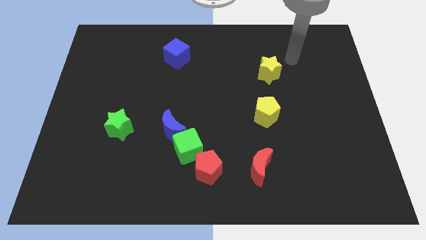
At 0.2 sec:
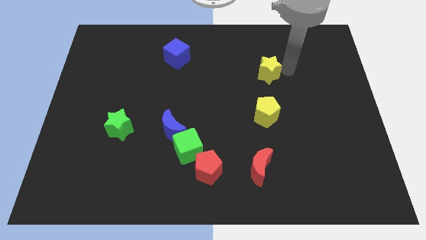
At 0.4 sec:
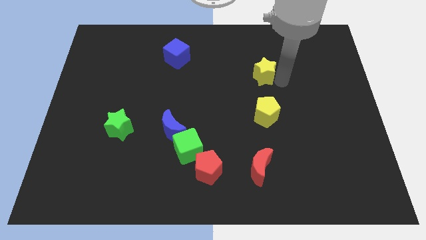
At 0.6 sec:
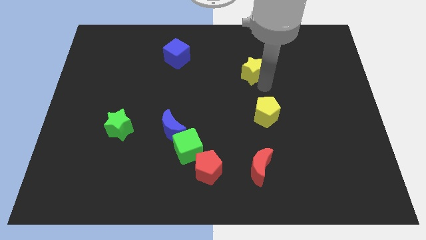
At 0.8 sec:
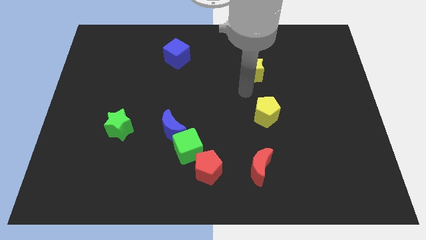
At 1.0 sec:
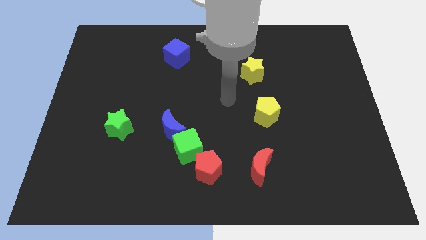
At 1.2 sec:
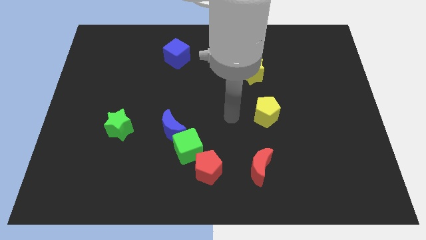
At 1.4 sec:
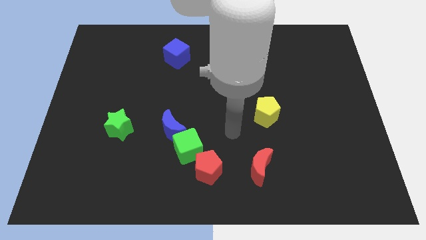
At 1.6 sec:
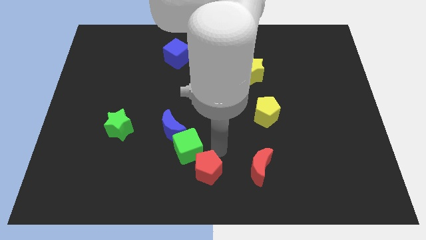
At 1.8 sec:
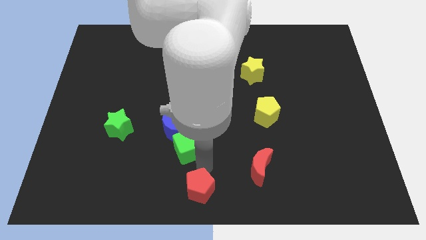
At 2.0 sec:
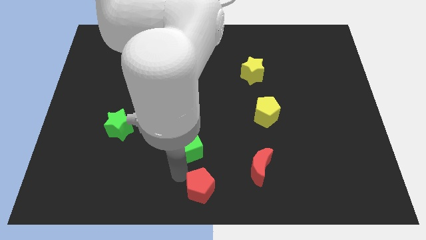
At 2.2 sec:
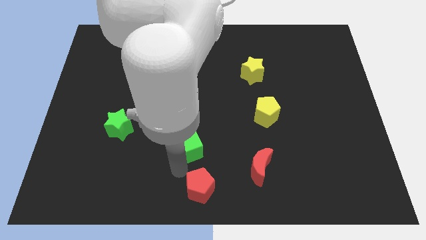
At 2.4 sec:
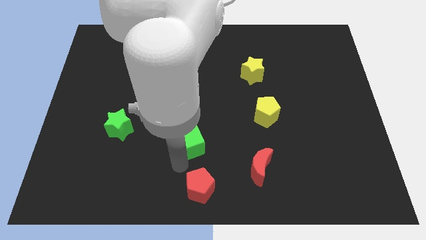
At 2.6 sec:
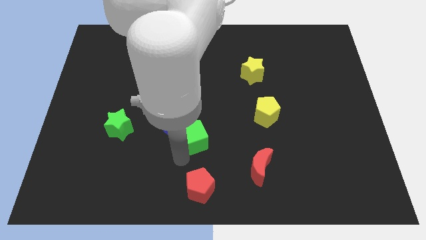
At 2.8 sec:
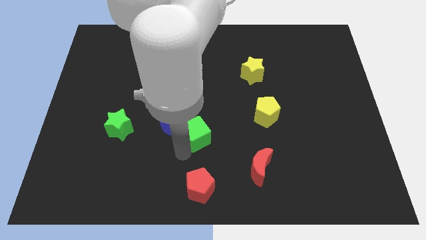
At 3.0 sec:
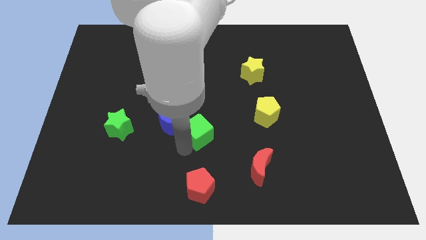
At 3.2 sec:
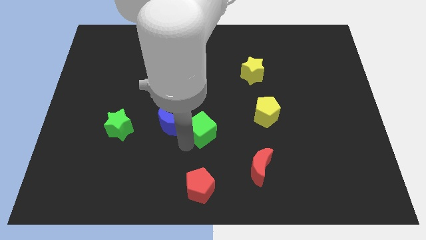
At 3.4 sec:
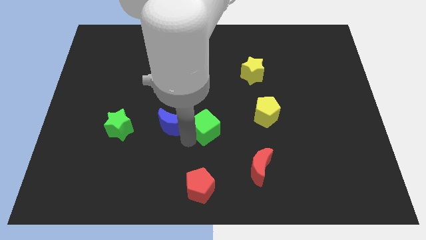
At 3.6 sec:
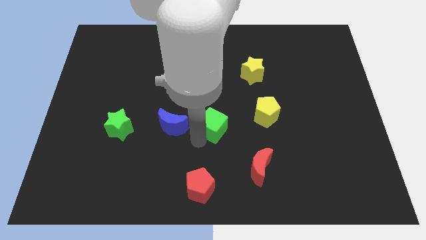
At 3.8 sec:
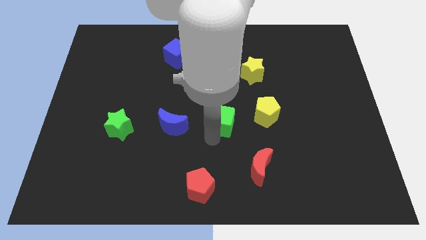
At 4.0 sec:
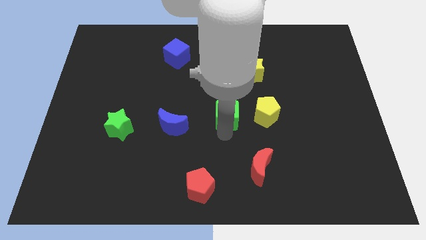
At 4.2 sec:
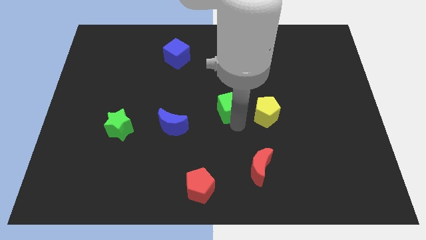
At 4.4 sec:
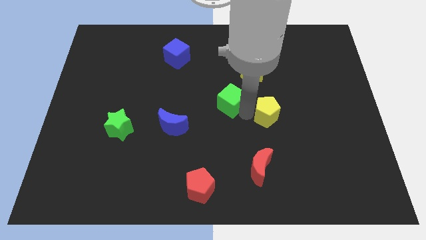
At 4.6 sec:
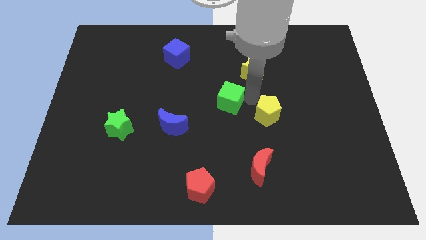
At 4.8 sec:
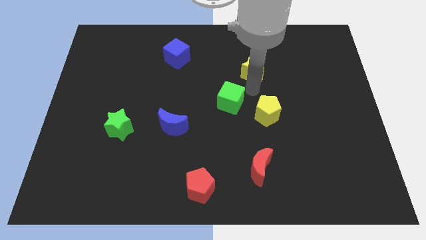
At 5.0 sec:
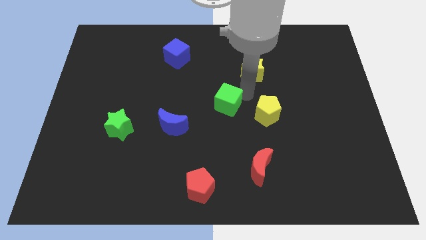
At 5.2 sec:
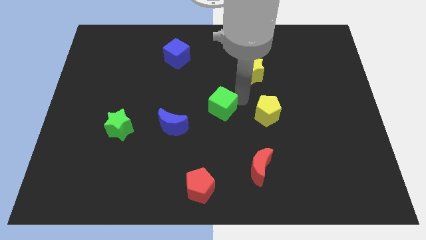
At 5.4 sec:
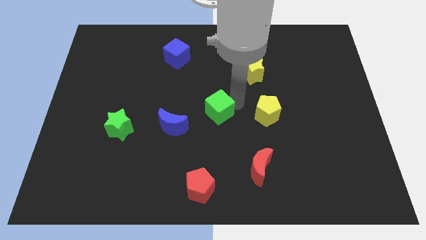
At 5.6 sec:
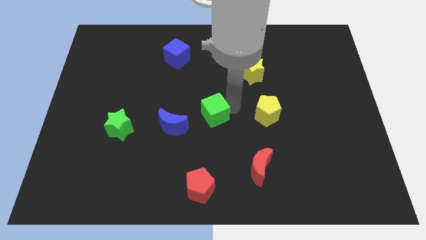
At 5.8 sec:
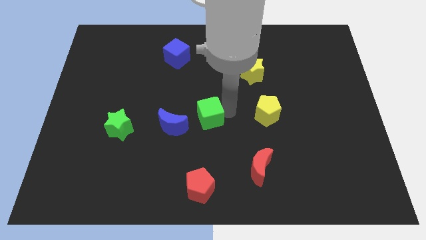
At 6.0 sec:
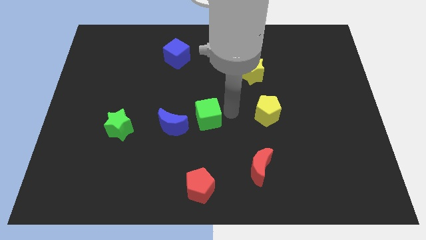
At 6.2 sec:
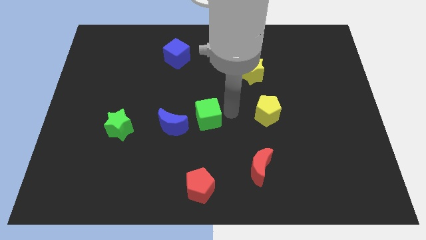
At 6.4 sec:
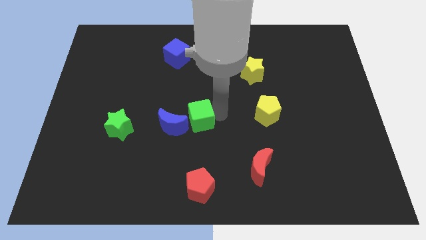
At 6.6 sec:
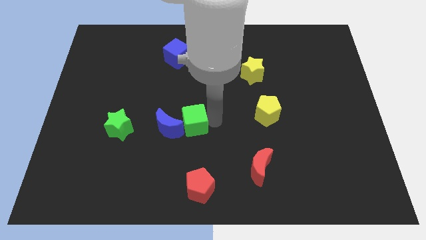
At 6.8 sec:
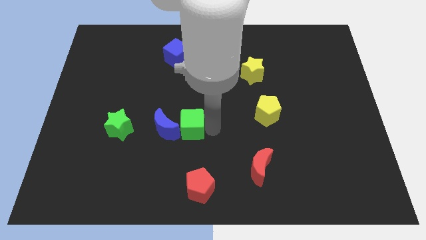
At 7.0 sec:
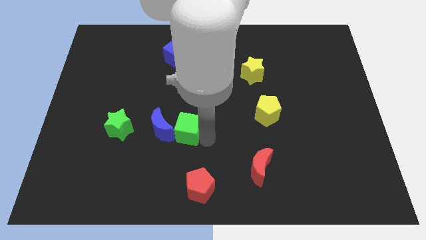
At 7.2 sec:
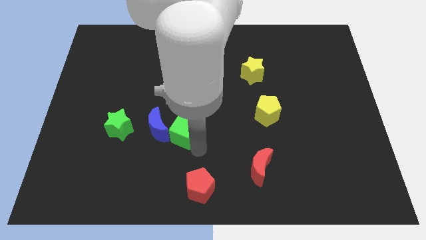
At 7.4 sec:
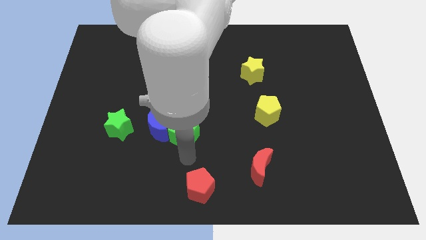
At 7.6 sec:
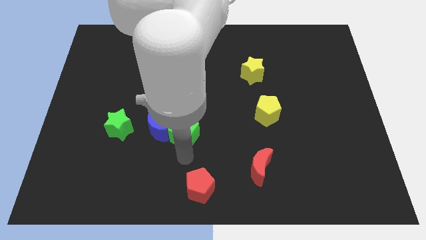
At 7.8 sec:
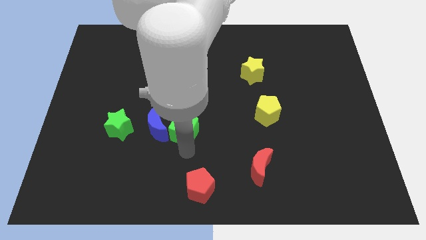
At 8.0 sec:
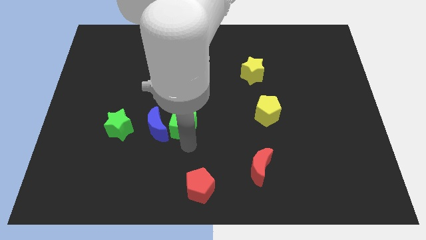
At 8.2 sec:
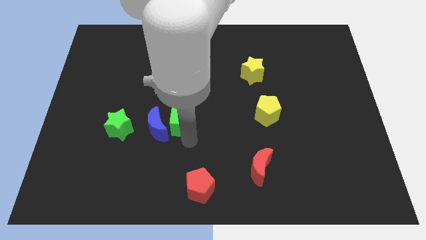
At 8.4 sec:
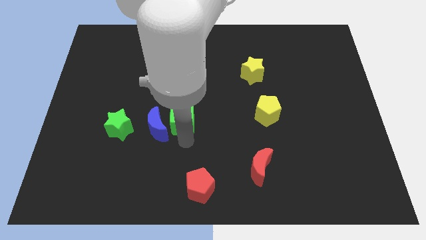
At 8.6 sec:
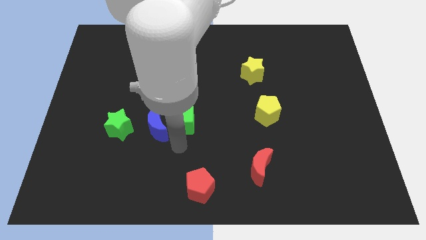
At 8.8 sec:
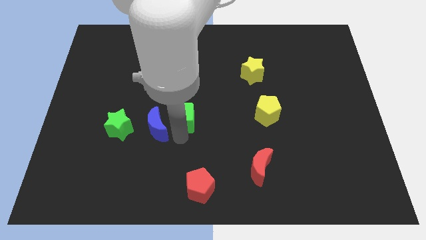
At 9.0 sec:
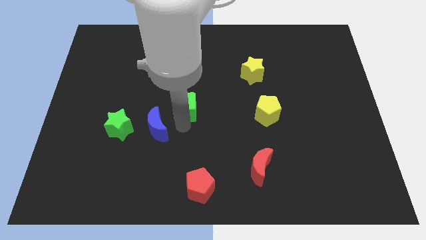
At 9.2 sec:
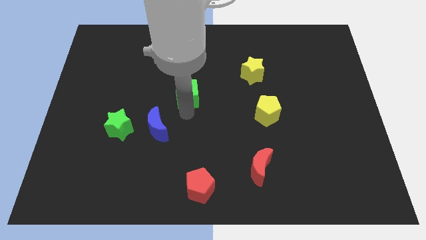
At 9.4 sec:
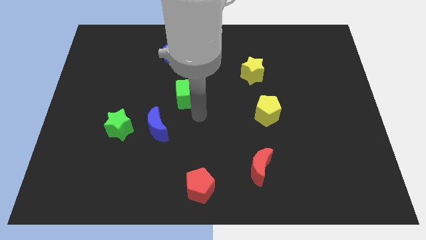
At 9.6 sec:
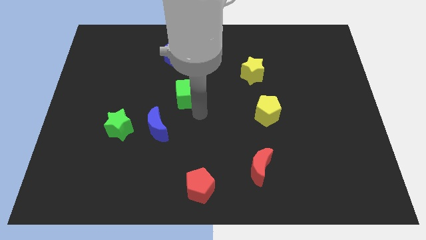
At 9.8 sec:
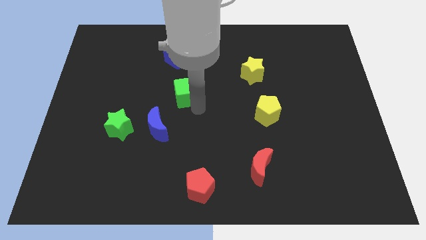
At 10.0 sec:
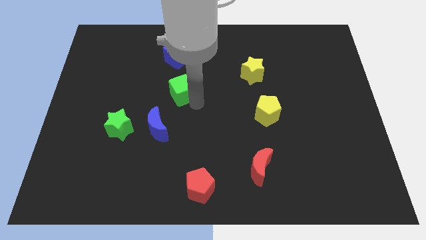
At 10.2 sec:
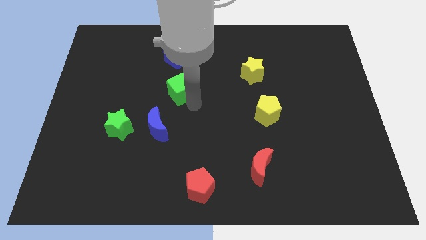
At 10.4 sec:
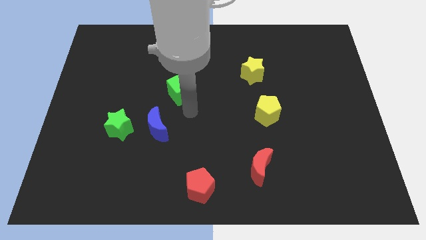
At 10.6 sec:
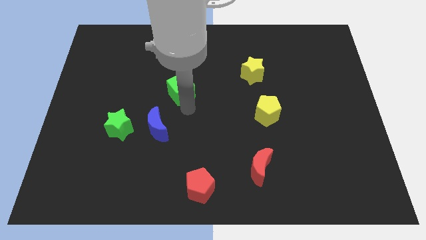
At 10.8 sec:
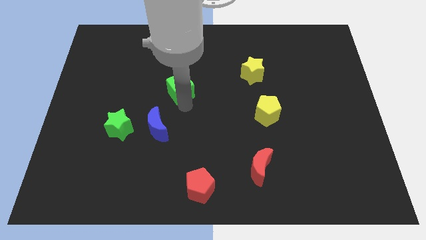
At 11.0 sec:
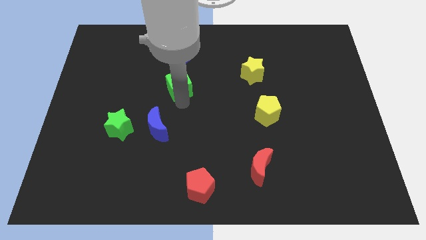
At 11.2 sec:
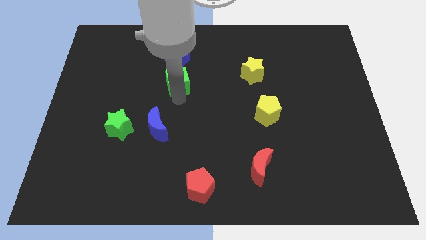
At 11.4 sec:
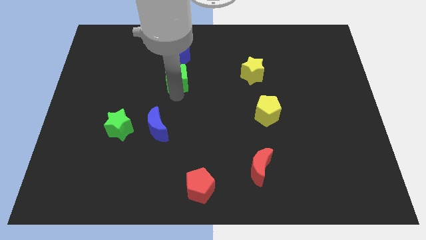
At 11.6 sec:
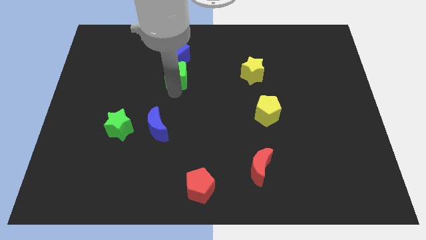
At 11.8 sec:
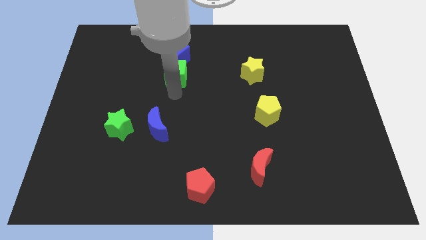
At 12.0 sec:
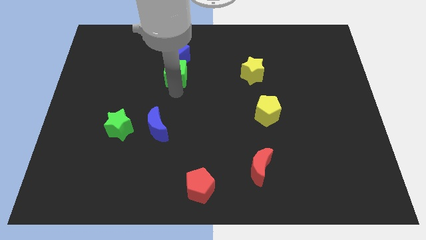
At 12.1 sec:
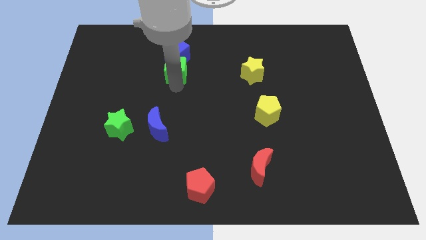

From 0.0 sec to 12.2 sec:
push the green cube close to the blue cube

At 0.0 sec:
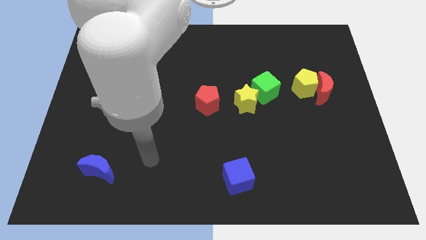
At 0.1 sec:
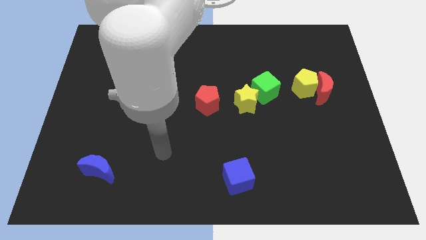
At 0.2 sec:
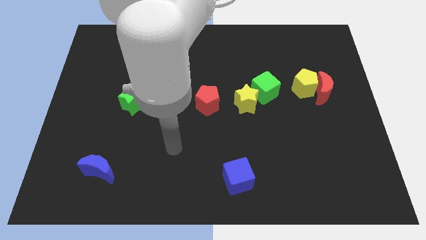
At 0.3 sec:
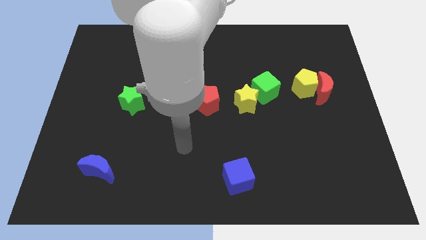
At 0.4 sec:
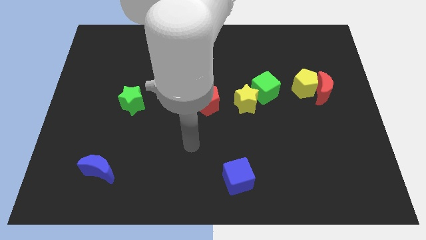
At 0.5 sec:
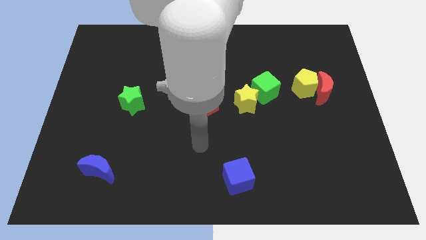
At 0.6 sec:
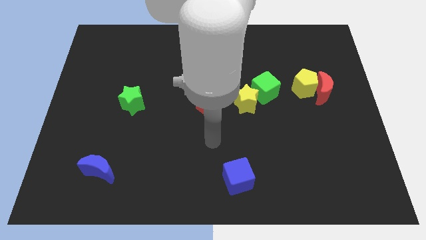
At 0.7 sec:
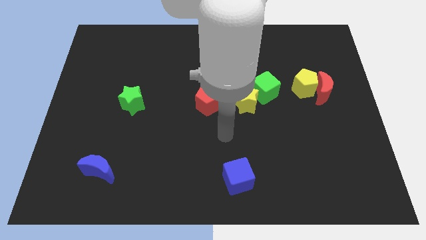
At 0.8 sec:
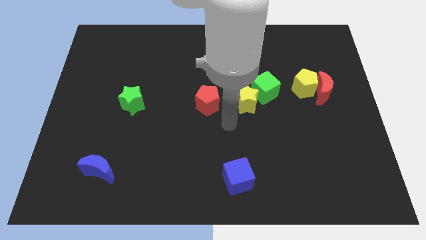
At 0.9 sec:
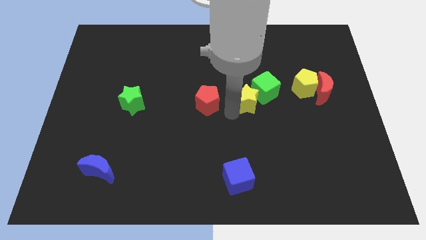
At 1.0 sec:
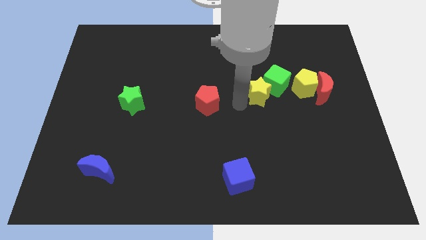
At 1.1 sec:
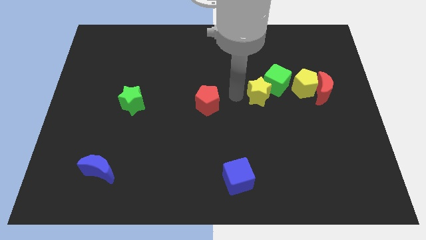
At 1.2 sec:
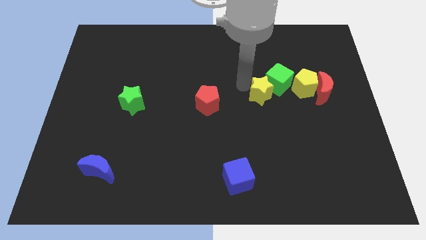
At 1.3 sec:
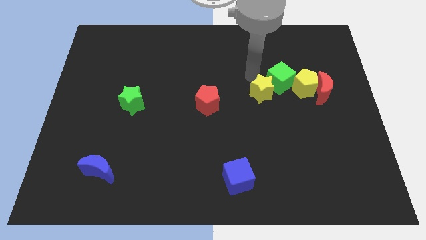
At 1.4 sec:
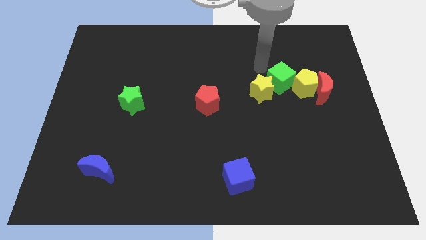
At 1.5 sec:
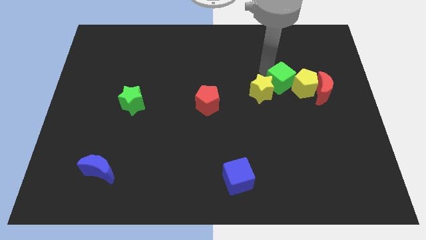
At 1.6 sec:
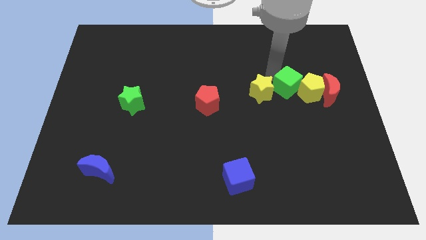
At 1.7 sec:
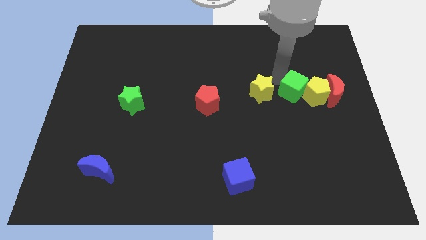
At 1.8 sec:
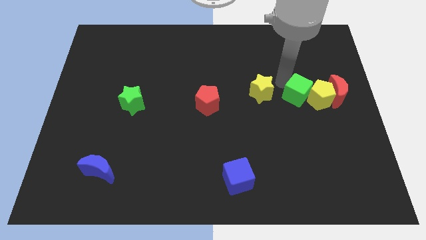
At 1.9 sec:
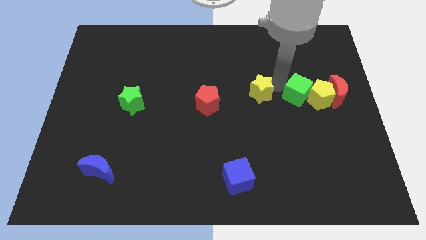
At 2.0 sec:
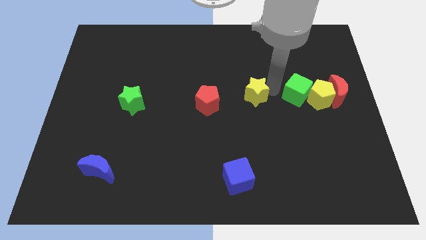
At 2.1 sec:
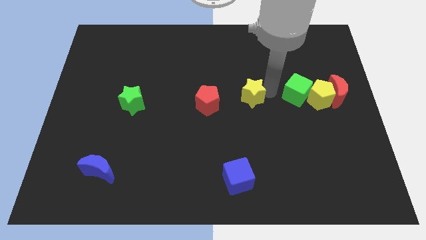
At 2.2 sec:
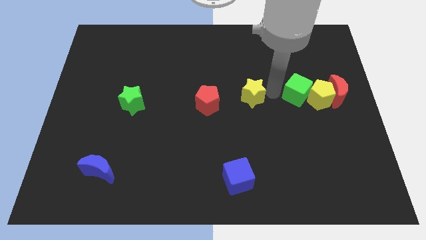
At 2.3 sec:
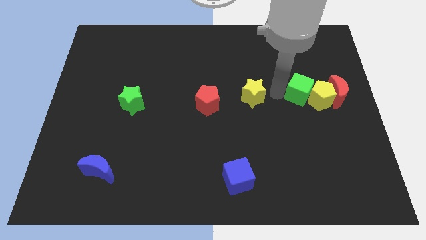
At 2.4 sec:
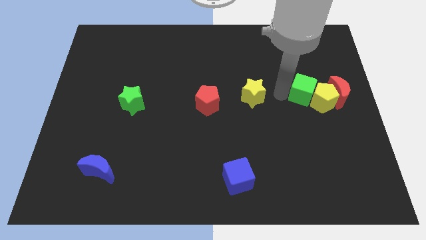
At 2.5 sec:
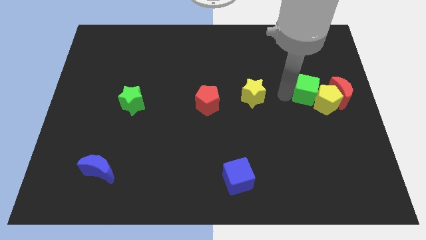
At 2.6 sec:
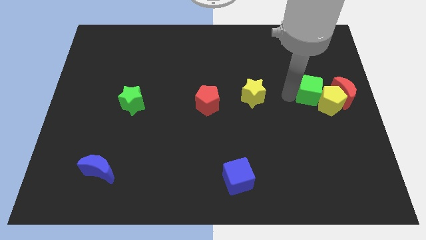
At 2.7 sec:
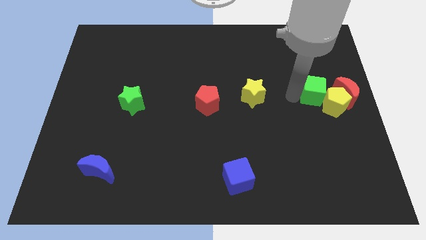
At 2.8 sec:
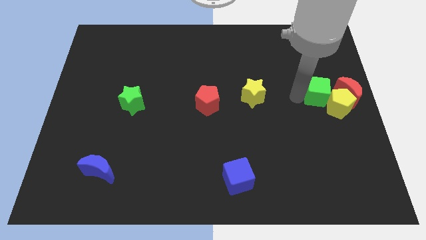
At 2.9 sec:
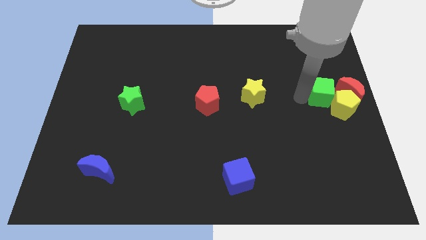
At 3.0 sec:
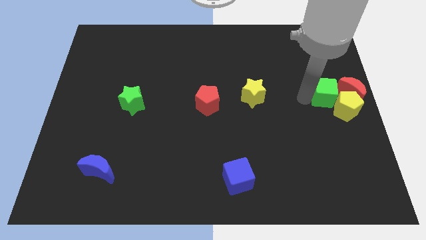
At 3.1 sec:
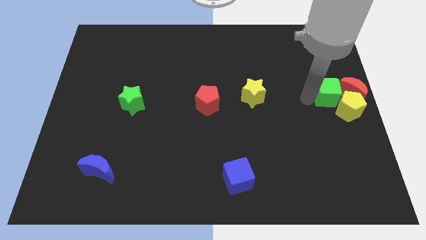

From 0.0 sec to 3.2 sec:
move the green cube towards the red moon
